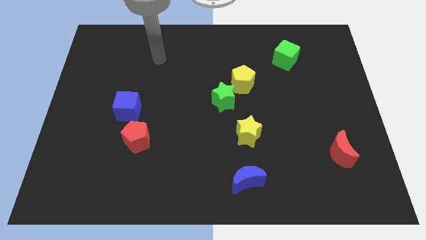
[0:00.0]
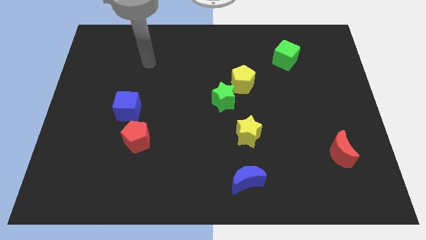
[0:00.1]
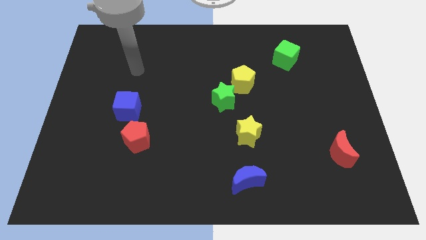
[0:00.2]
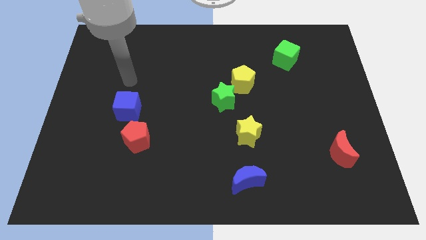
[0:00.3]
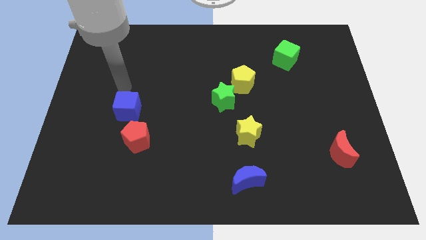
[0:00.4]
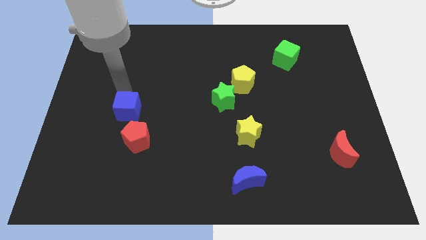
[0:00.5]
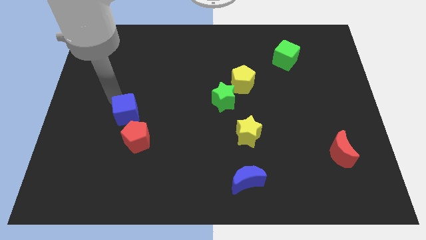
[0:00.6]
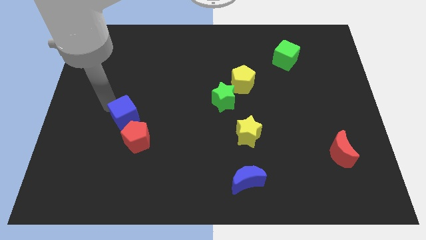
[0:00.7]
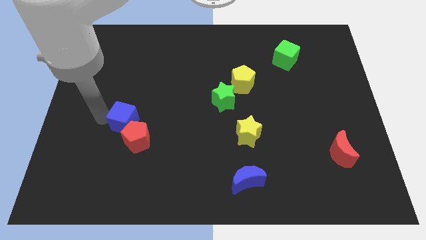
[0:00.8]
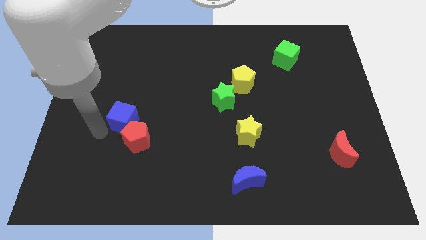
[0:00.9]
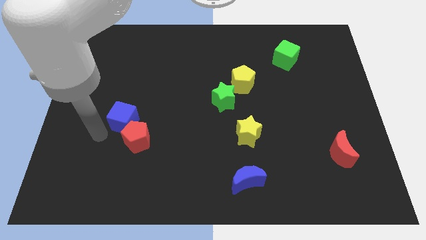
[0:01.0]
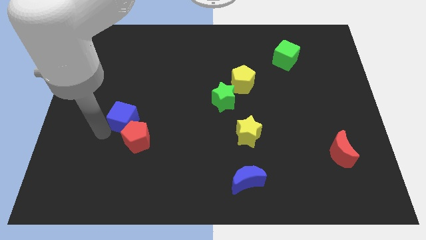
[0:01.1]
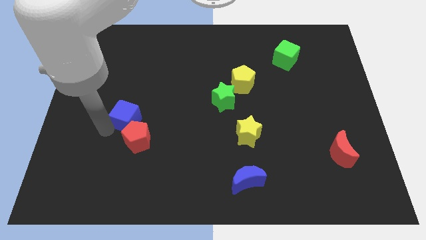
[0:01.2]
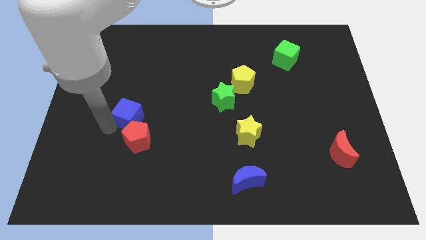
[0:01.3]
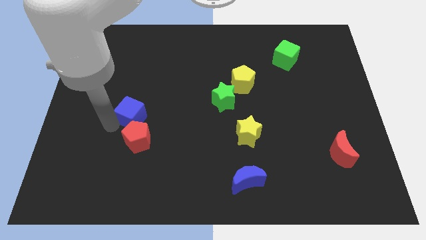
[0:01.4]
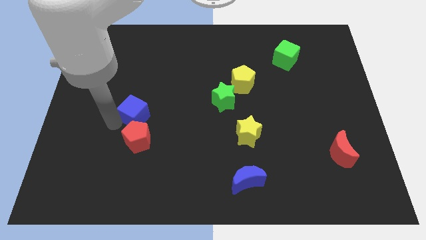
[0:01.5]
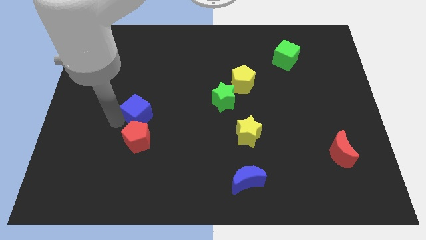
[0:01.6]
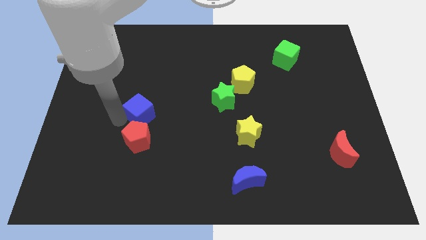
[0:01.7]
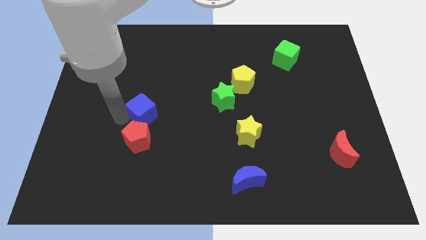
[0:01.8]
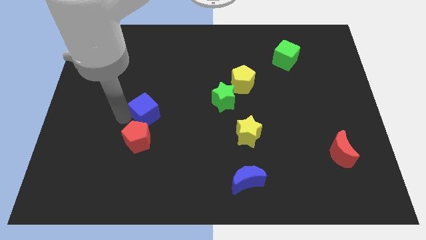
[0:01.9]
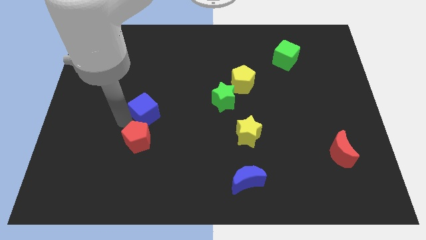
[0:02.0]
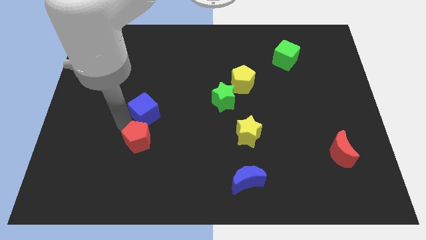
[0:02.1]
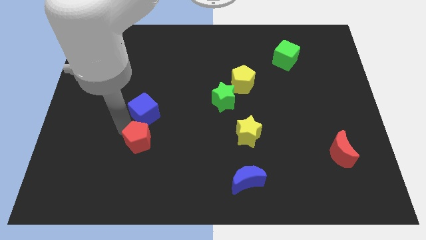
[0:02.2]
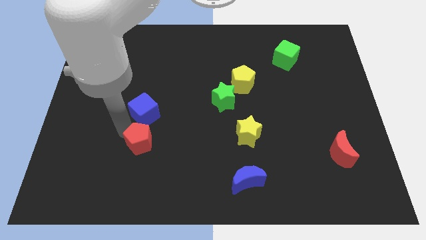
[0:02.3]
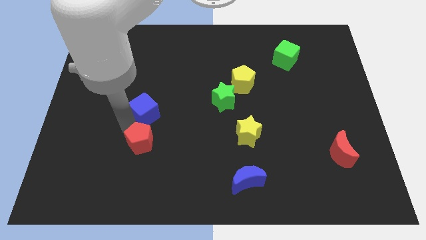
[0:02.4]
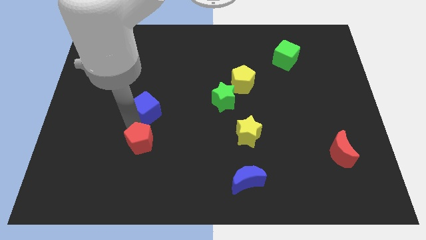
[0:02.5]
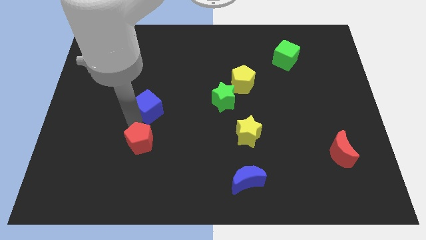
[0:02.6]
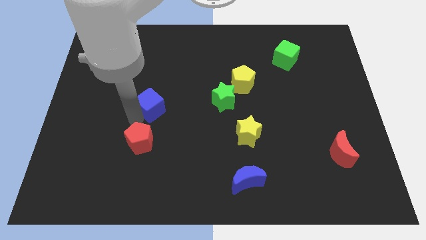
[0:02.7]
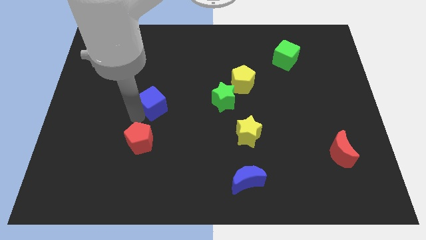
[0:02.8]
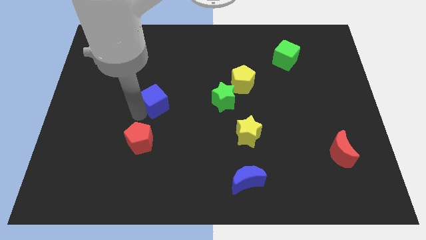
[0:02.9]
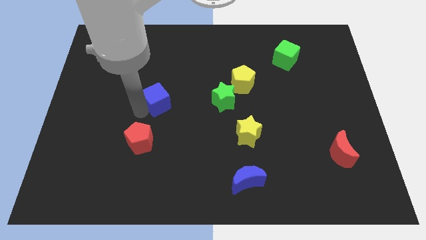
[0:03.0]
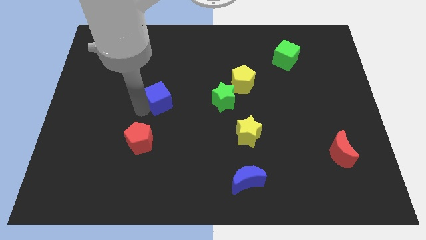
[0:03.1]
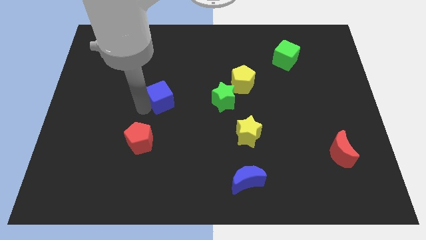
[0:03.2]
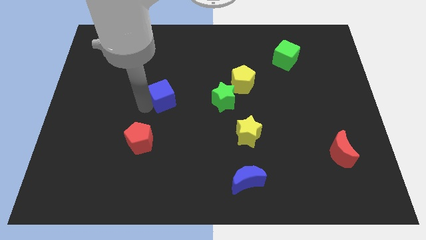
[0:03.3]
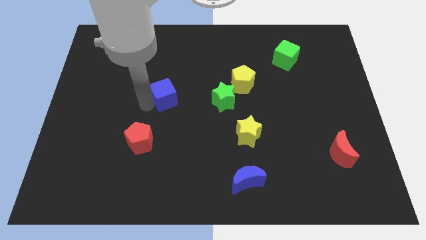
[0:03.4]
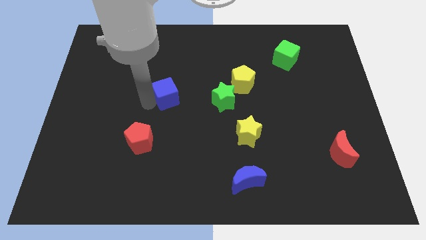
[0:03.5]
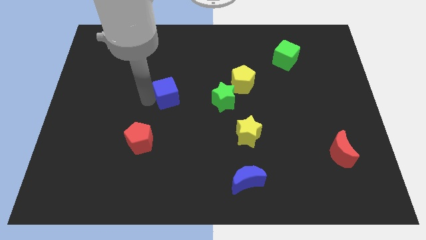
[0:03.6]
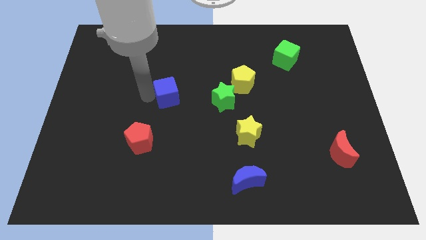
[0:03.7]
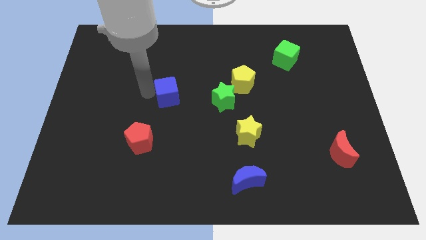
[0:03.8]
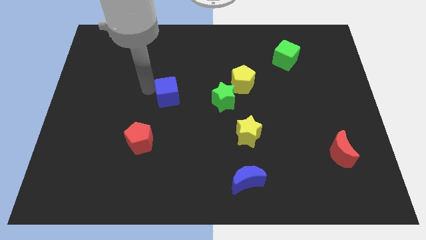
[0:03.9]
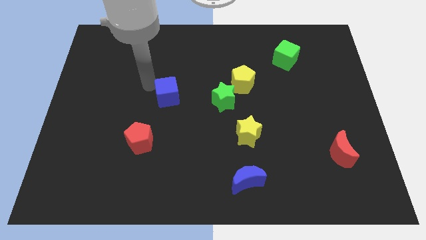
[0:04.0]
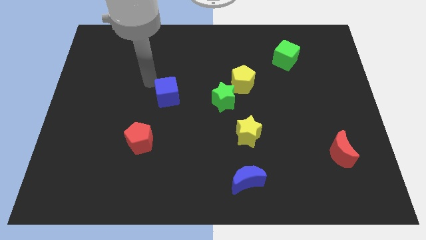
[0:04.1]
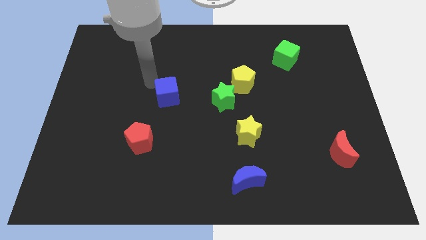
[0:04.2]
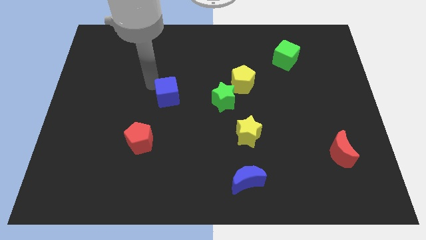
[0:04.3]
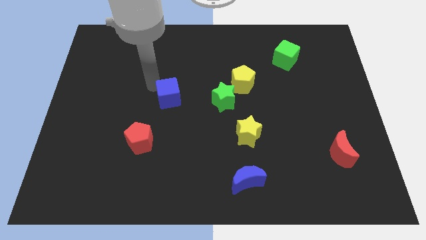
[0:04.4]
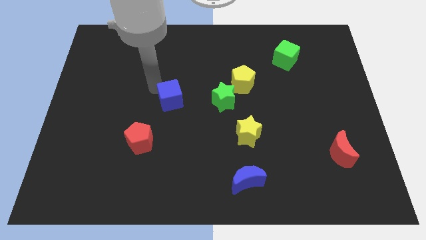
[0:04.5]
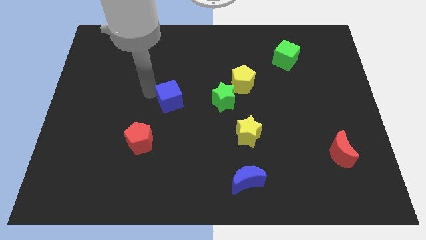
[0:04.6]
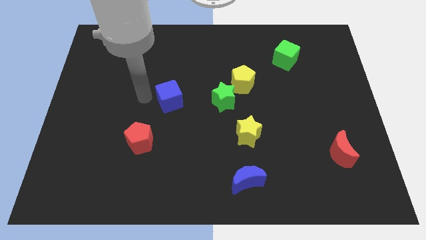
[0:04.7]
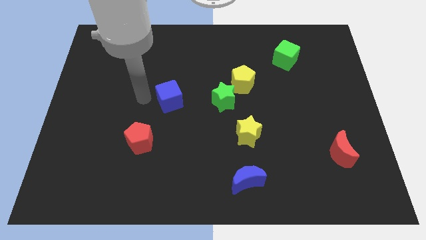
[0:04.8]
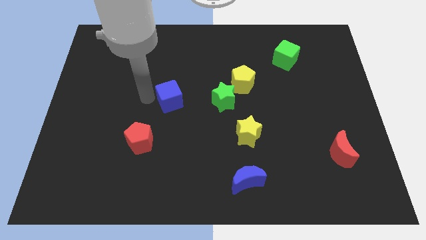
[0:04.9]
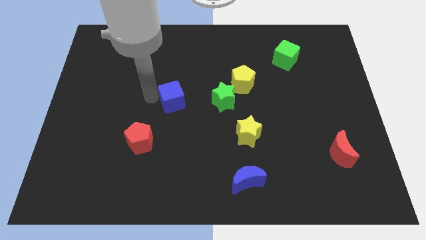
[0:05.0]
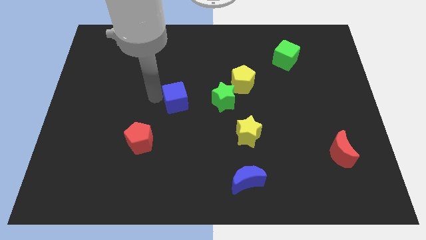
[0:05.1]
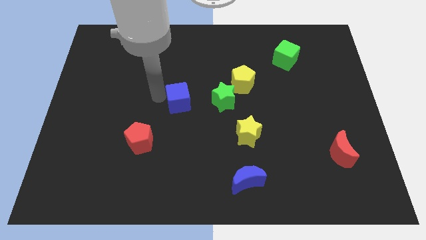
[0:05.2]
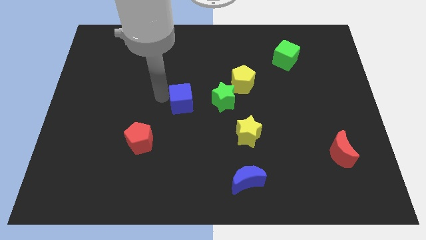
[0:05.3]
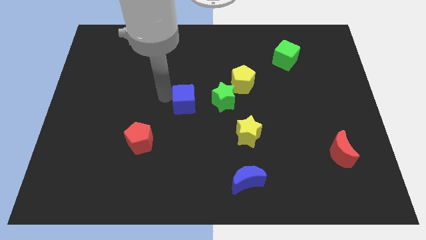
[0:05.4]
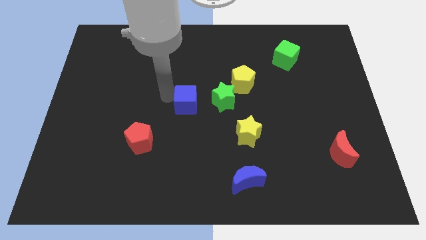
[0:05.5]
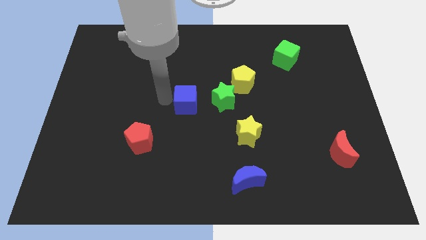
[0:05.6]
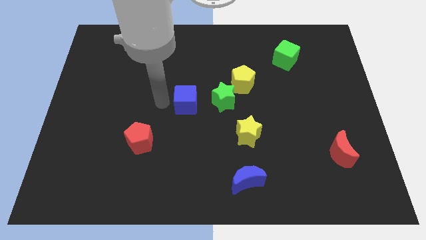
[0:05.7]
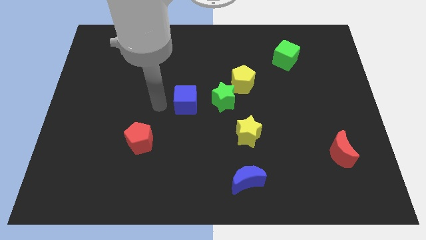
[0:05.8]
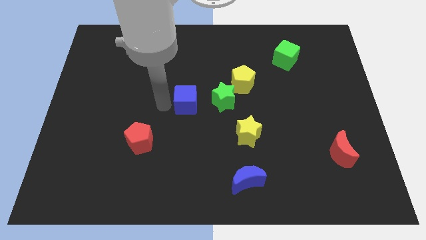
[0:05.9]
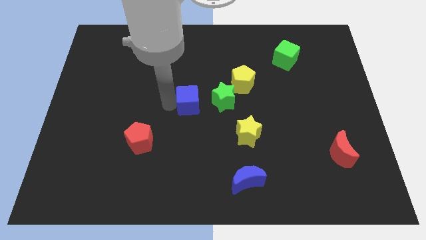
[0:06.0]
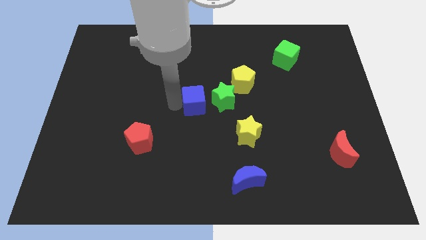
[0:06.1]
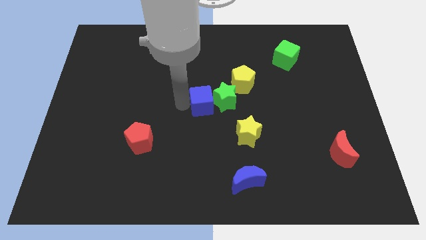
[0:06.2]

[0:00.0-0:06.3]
put the blue cube towards the green star

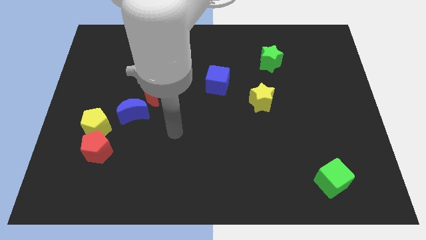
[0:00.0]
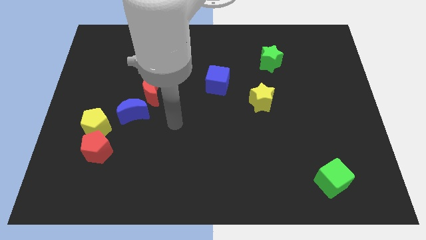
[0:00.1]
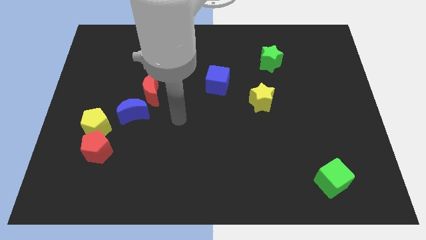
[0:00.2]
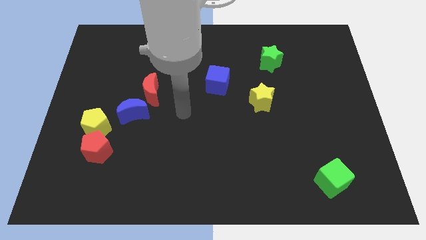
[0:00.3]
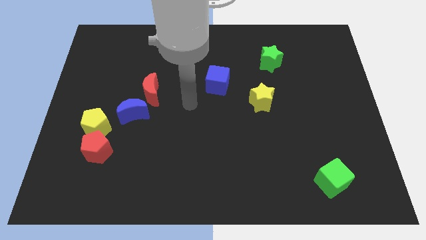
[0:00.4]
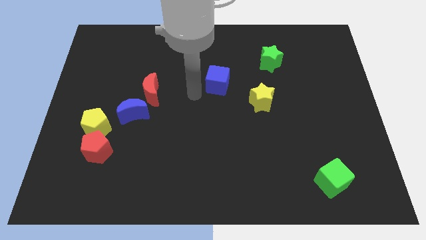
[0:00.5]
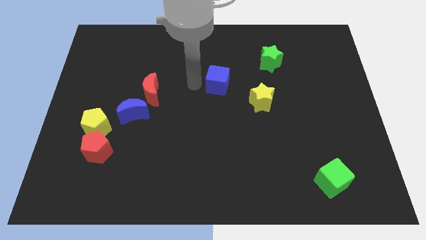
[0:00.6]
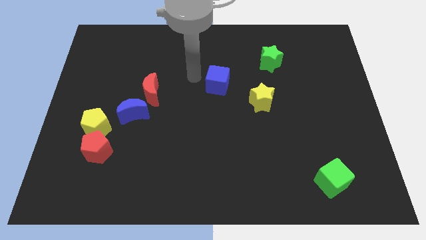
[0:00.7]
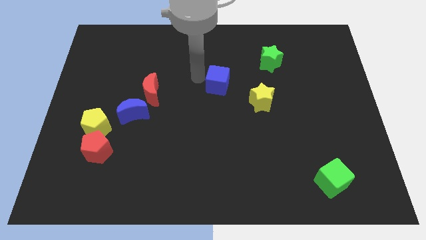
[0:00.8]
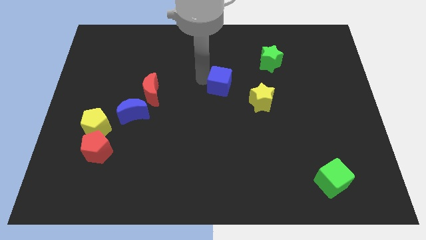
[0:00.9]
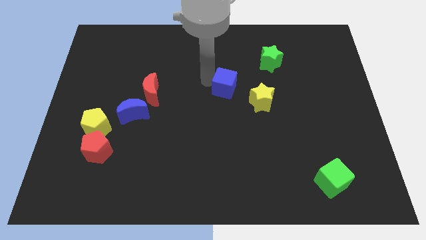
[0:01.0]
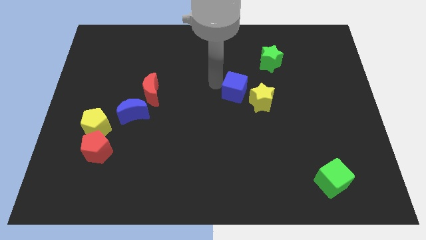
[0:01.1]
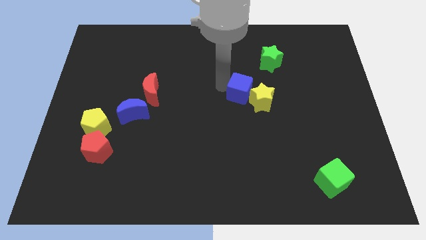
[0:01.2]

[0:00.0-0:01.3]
move the blue cube next to the yellow star
